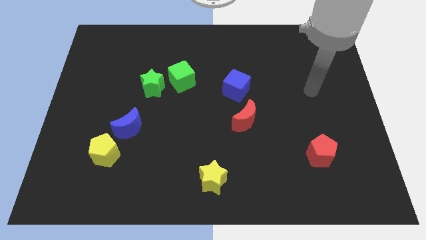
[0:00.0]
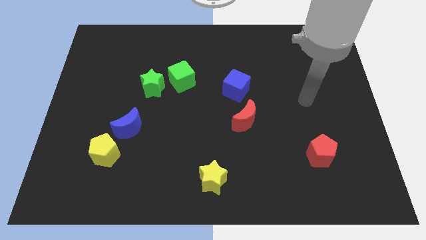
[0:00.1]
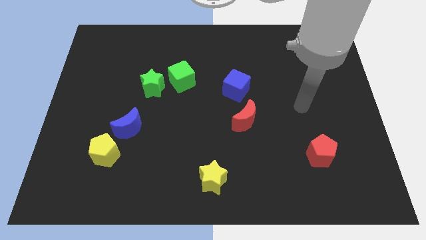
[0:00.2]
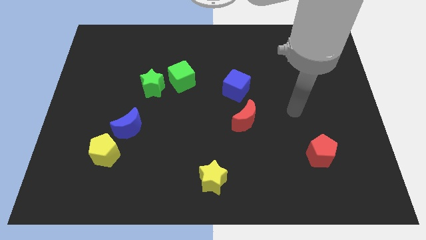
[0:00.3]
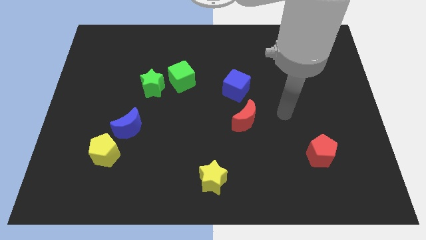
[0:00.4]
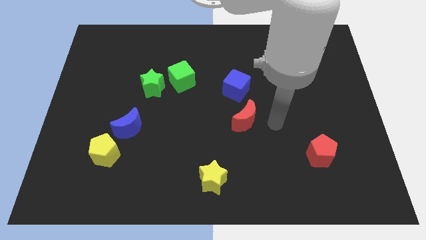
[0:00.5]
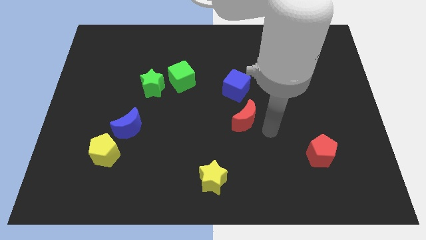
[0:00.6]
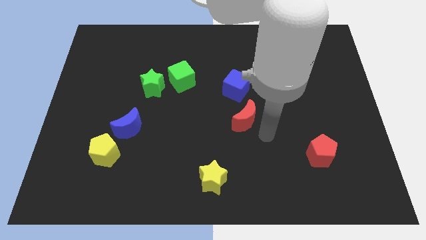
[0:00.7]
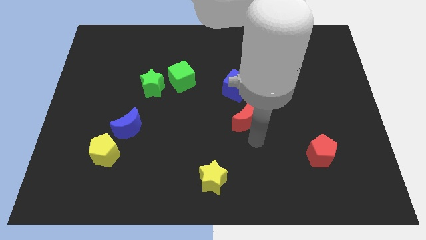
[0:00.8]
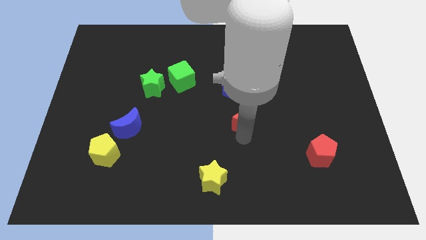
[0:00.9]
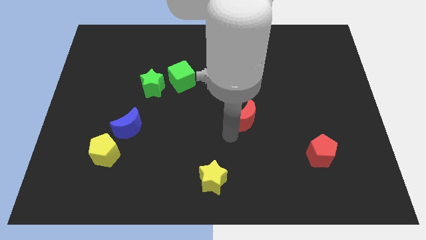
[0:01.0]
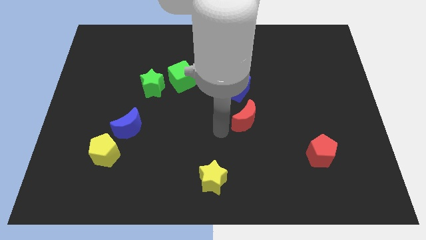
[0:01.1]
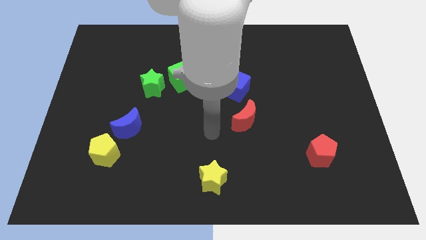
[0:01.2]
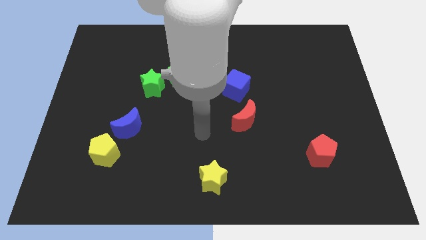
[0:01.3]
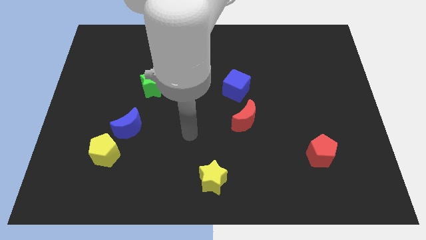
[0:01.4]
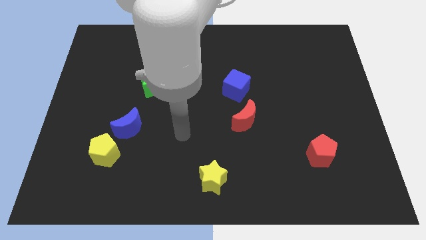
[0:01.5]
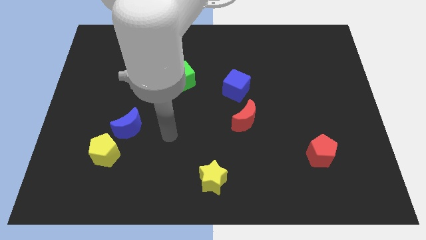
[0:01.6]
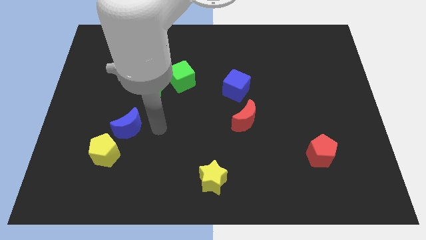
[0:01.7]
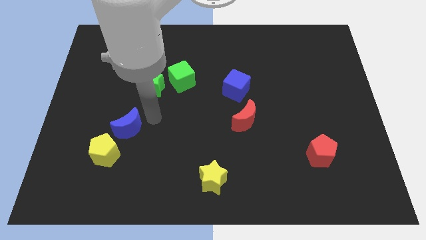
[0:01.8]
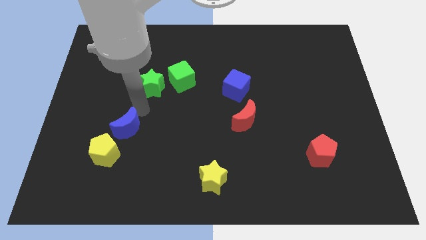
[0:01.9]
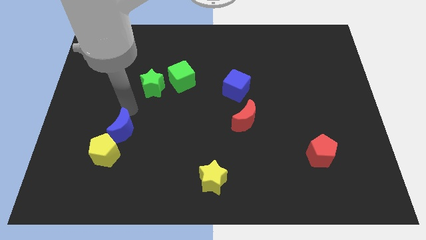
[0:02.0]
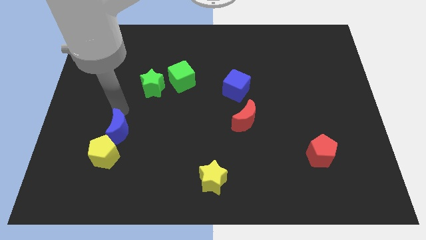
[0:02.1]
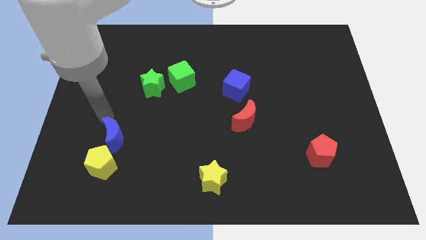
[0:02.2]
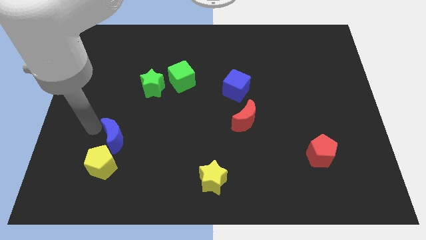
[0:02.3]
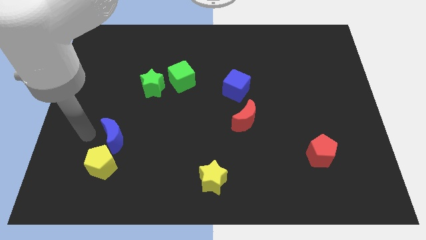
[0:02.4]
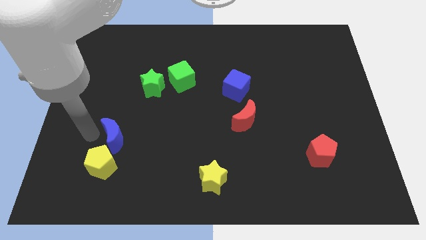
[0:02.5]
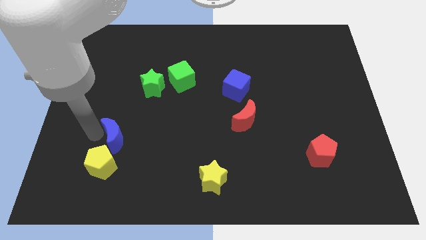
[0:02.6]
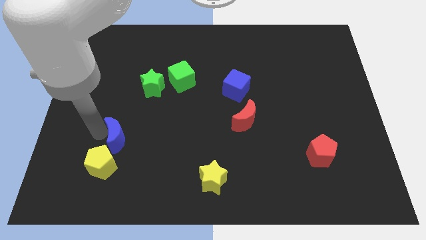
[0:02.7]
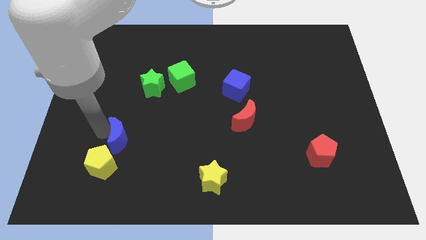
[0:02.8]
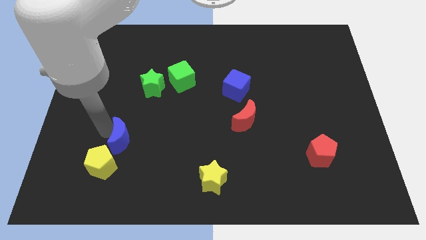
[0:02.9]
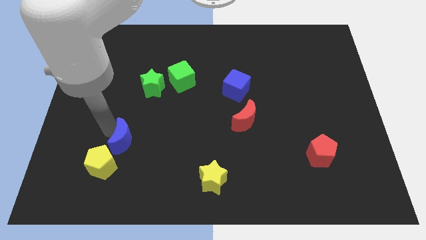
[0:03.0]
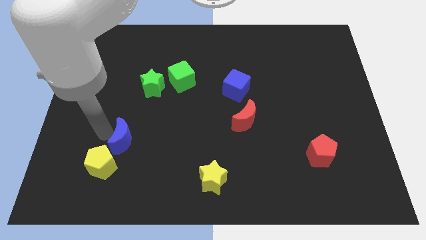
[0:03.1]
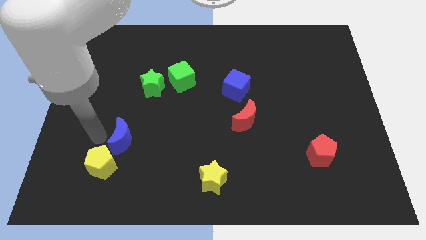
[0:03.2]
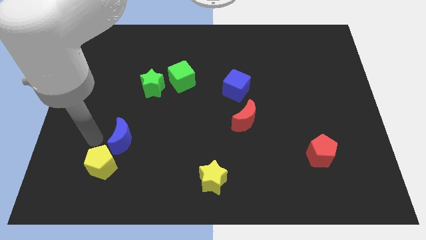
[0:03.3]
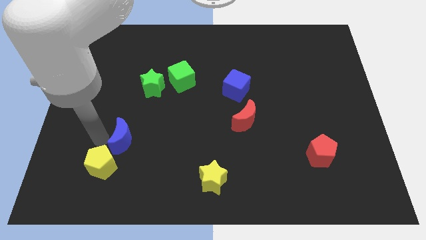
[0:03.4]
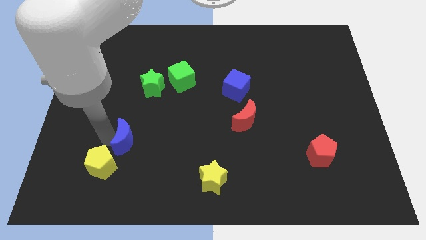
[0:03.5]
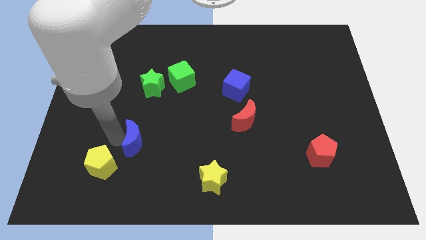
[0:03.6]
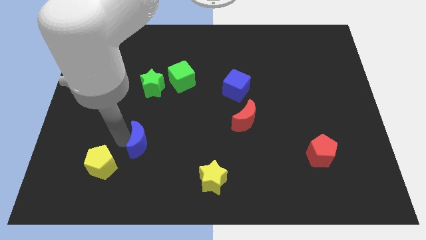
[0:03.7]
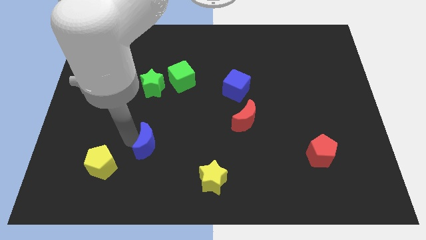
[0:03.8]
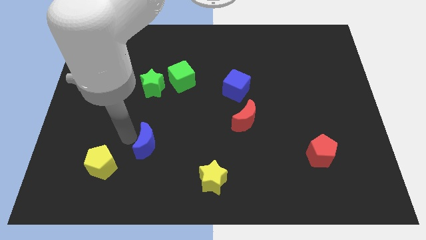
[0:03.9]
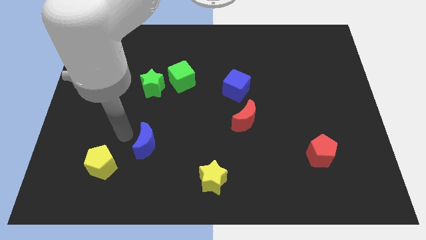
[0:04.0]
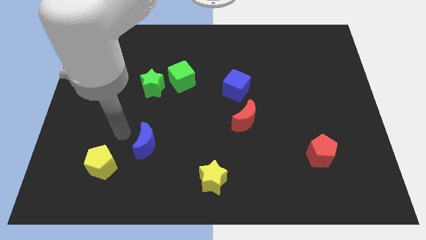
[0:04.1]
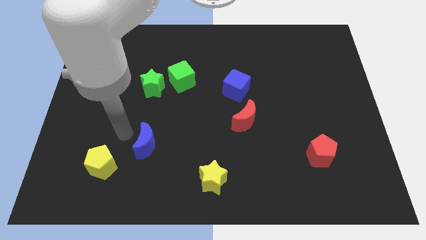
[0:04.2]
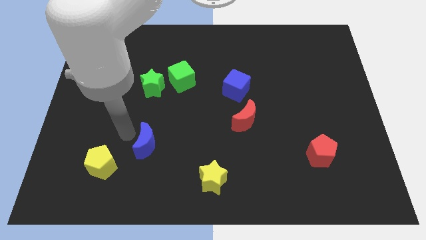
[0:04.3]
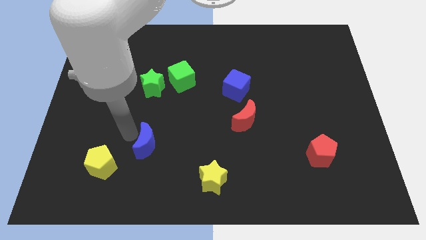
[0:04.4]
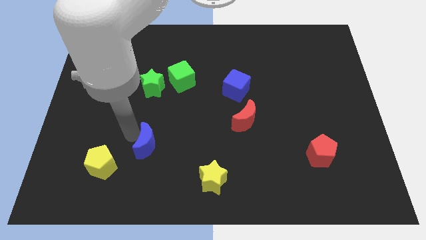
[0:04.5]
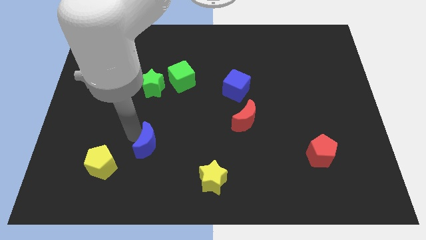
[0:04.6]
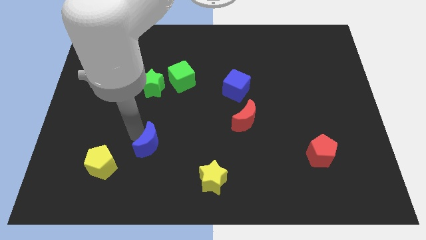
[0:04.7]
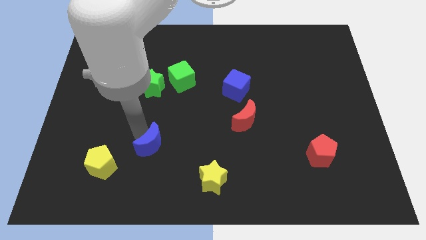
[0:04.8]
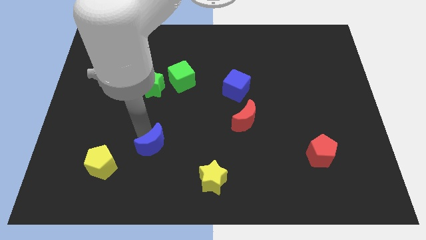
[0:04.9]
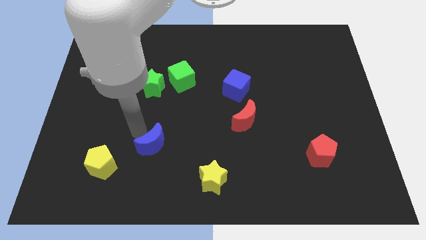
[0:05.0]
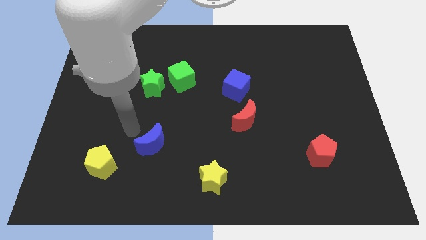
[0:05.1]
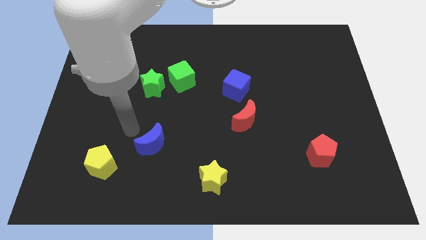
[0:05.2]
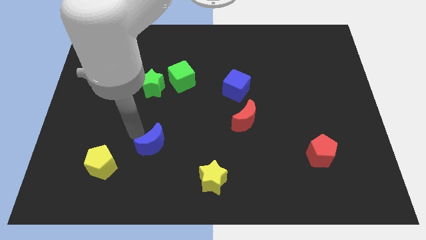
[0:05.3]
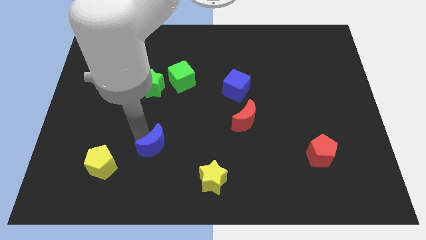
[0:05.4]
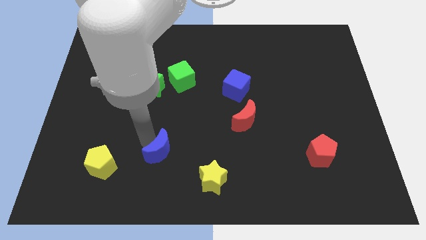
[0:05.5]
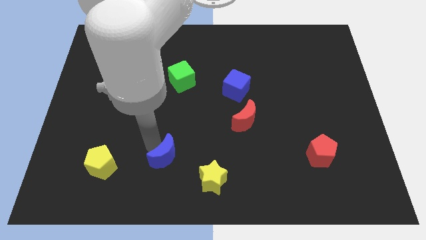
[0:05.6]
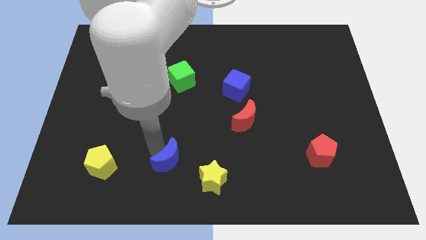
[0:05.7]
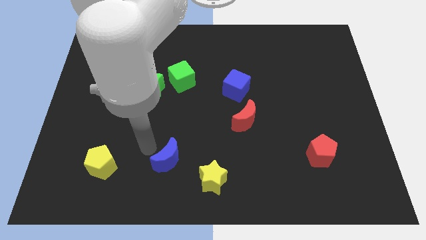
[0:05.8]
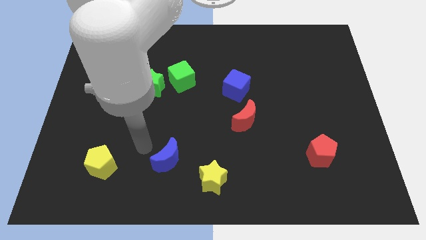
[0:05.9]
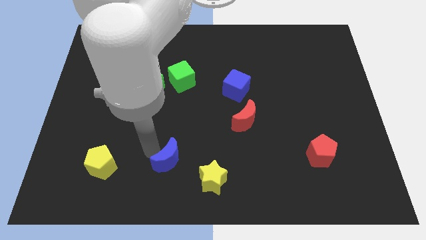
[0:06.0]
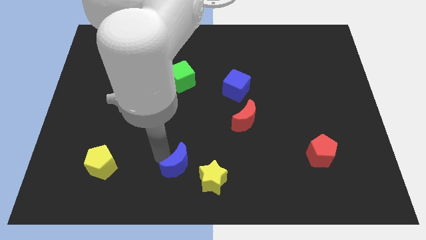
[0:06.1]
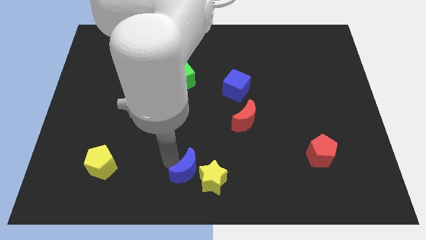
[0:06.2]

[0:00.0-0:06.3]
put the blue moon to the yellow star

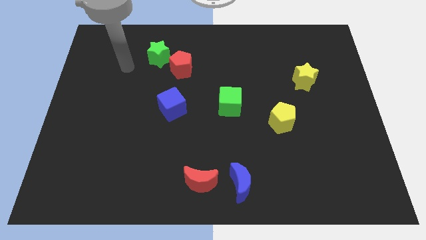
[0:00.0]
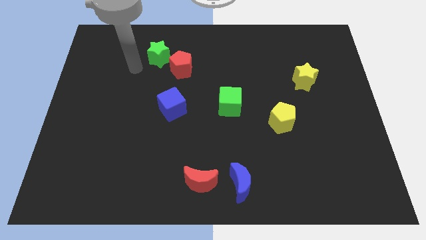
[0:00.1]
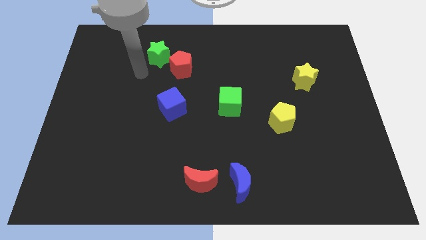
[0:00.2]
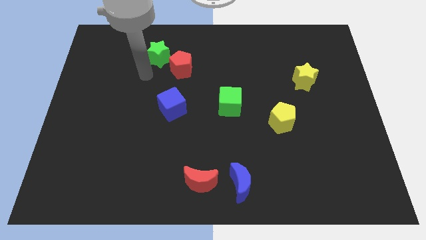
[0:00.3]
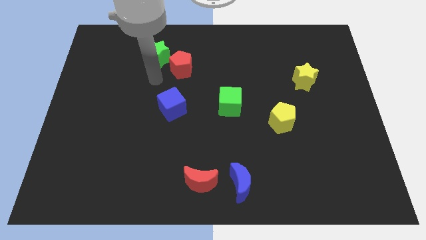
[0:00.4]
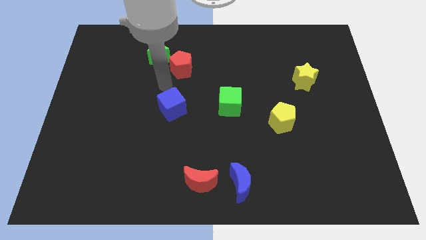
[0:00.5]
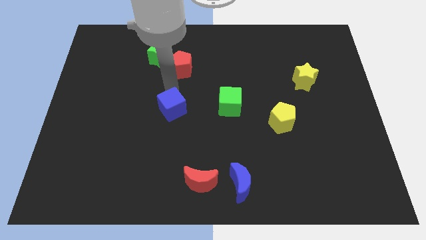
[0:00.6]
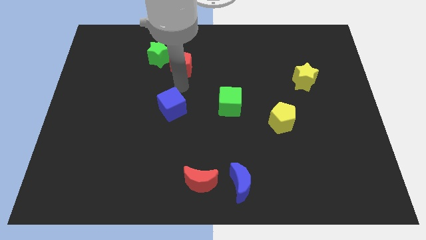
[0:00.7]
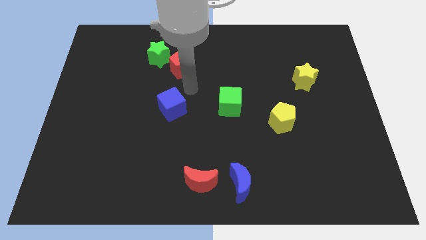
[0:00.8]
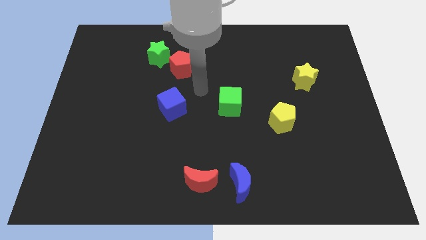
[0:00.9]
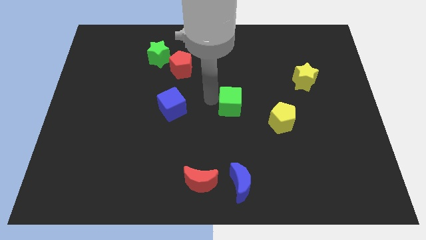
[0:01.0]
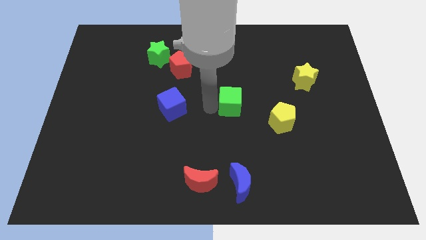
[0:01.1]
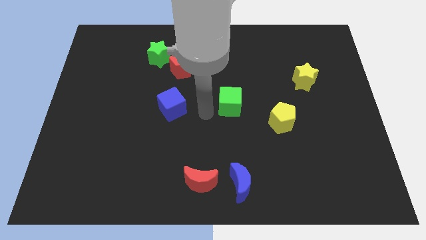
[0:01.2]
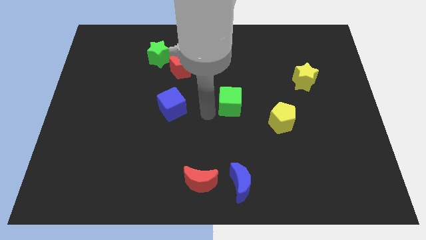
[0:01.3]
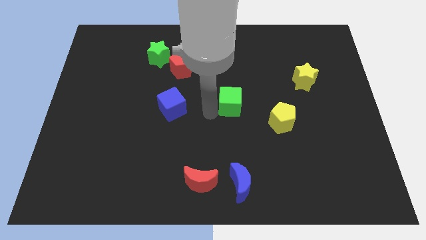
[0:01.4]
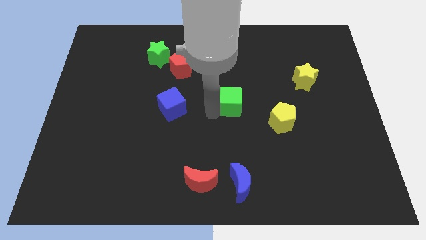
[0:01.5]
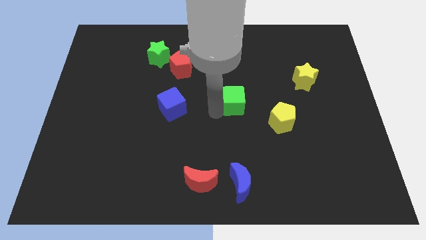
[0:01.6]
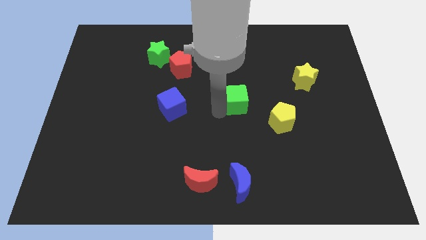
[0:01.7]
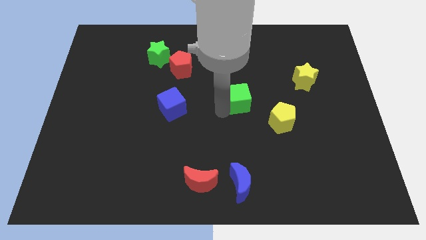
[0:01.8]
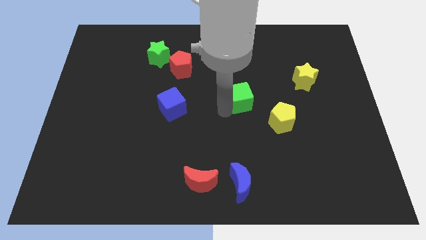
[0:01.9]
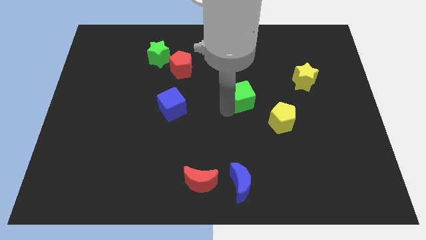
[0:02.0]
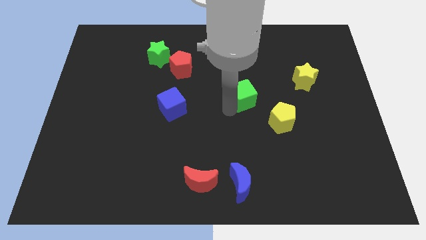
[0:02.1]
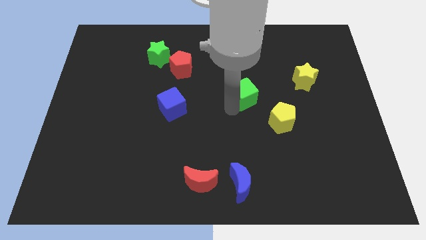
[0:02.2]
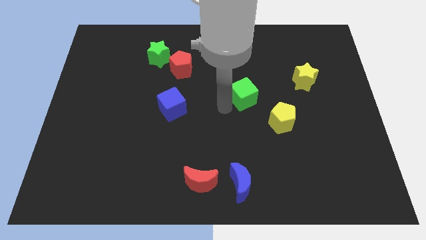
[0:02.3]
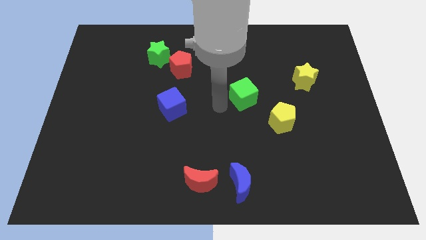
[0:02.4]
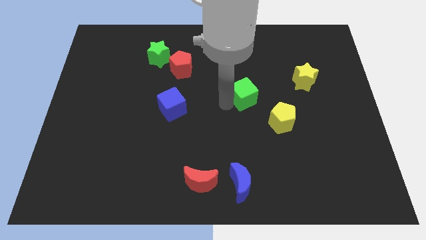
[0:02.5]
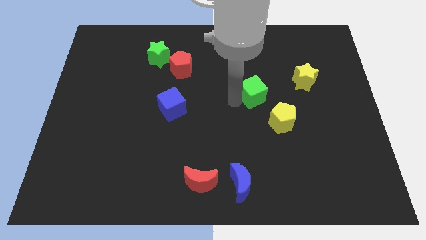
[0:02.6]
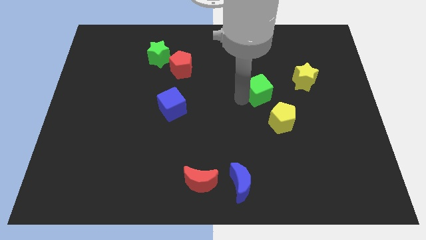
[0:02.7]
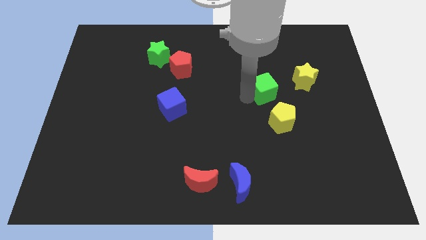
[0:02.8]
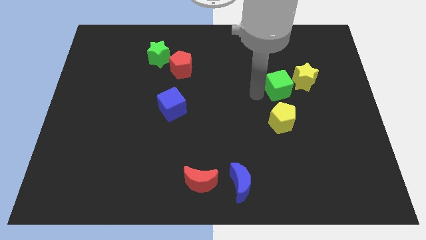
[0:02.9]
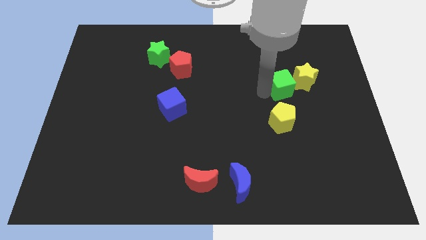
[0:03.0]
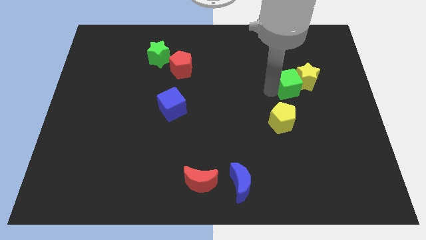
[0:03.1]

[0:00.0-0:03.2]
move the green cube towards the yellow star
